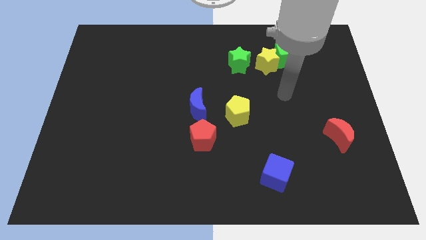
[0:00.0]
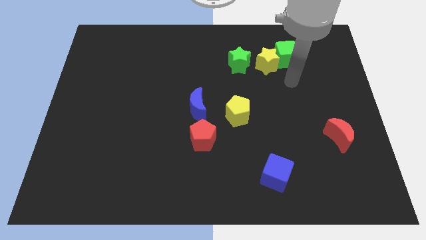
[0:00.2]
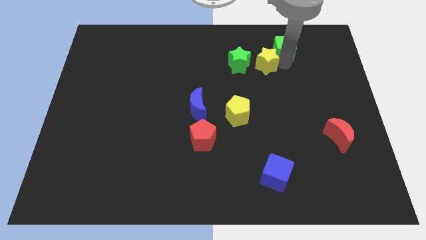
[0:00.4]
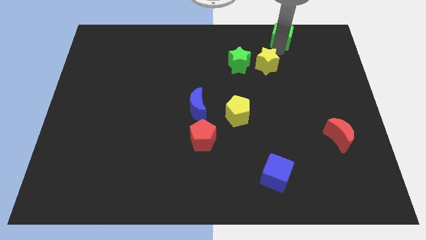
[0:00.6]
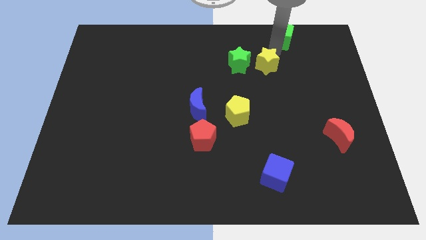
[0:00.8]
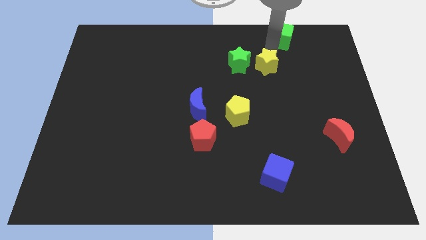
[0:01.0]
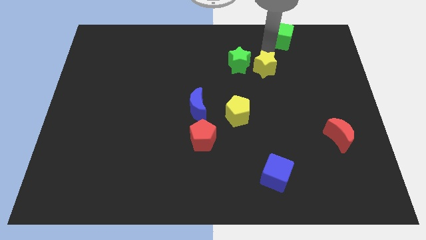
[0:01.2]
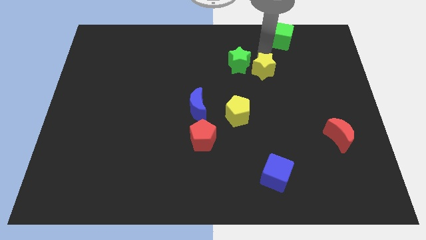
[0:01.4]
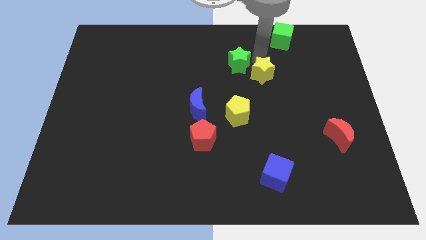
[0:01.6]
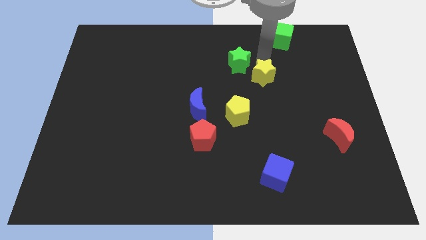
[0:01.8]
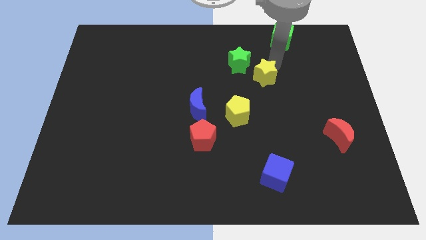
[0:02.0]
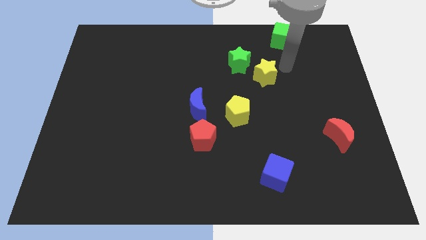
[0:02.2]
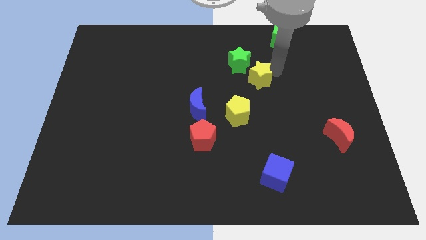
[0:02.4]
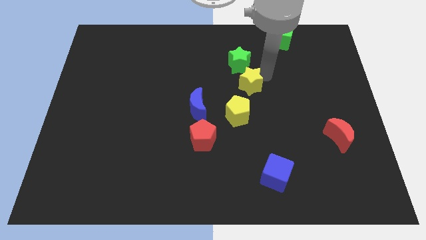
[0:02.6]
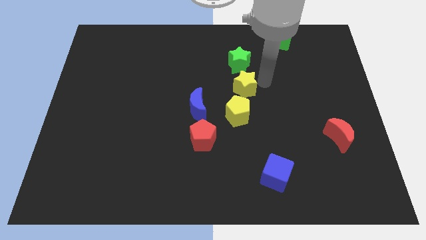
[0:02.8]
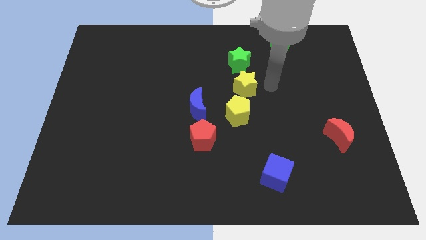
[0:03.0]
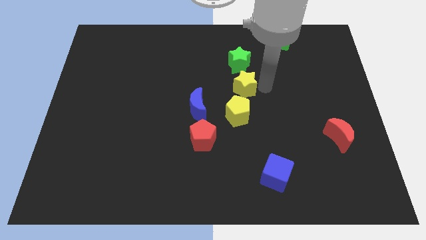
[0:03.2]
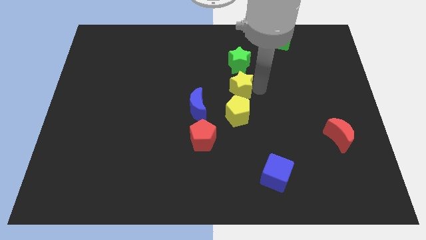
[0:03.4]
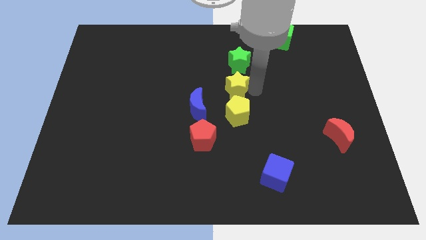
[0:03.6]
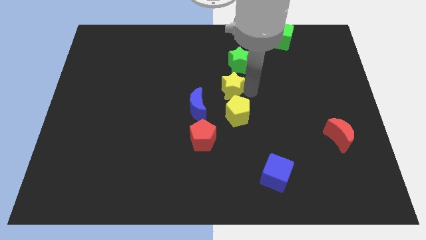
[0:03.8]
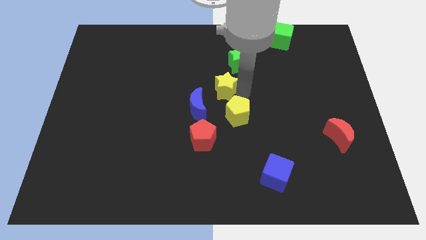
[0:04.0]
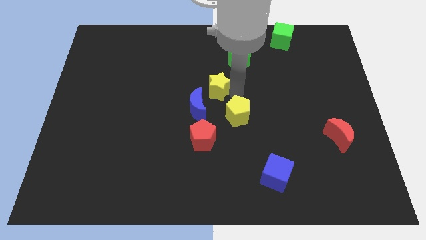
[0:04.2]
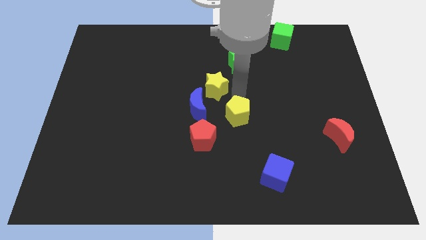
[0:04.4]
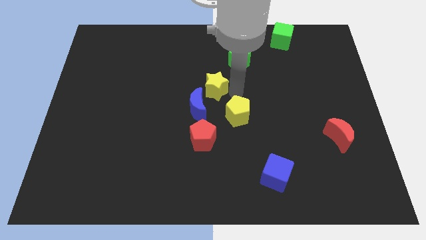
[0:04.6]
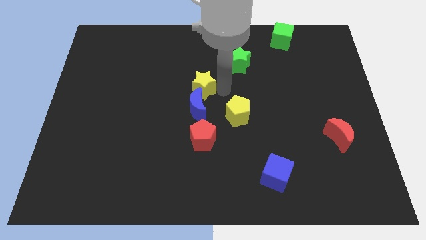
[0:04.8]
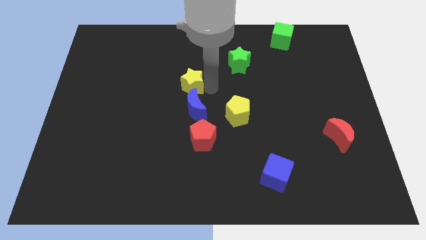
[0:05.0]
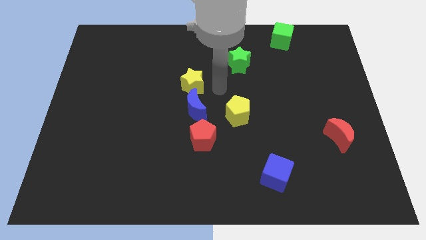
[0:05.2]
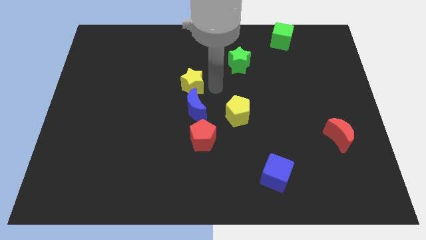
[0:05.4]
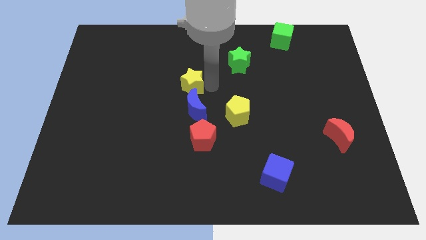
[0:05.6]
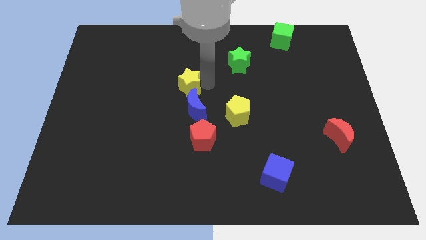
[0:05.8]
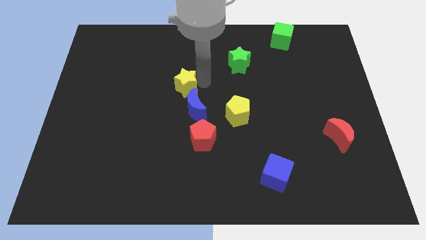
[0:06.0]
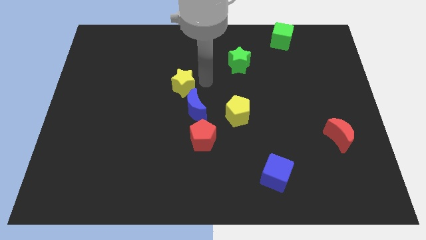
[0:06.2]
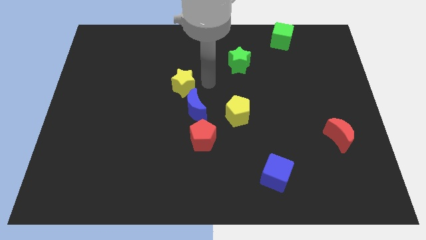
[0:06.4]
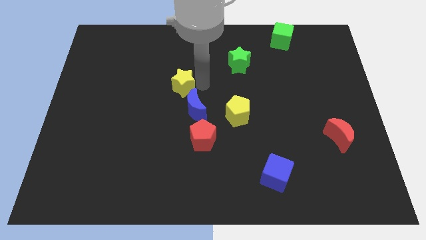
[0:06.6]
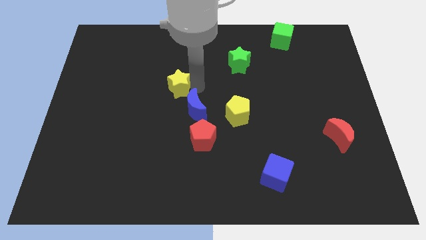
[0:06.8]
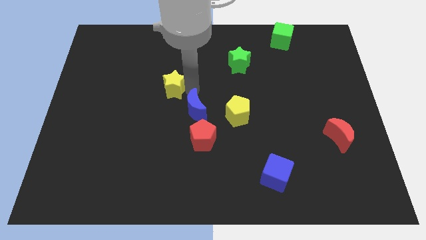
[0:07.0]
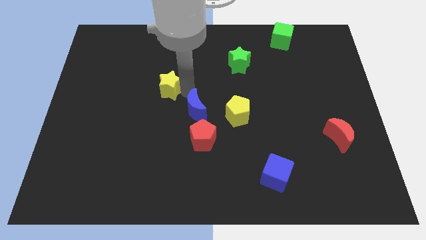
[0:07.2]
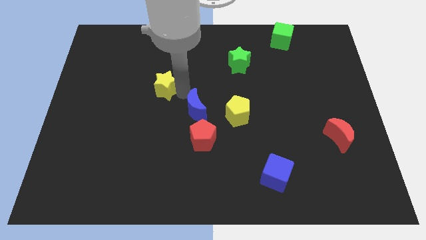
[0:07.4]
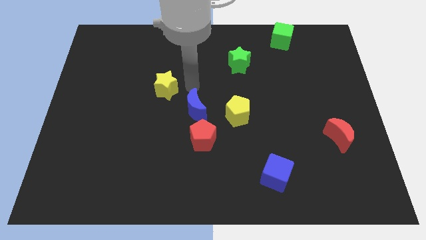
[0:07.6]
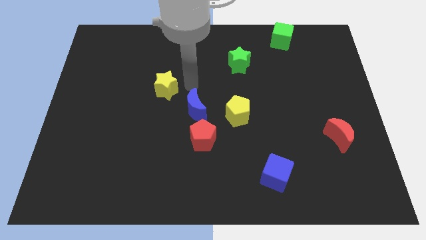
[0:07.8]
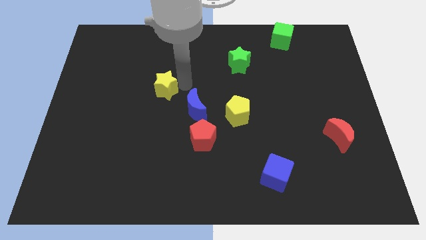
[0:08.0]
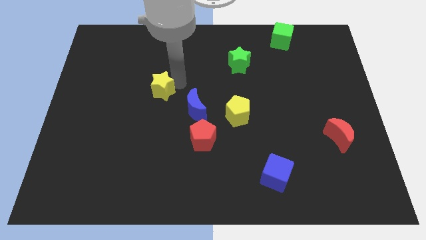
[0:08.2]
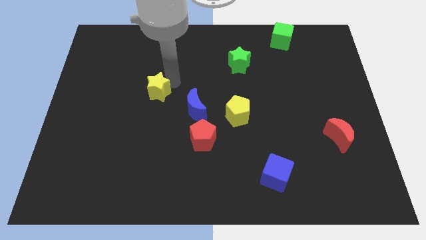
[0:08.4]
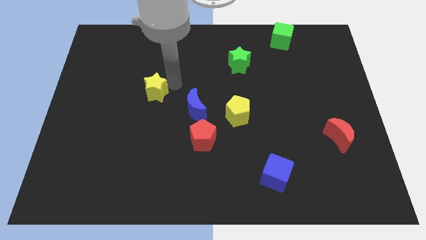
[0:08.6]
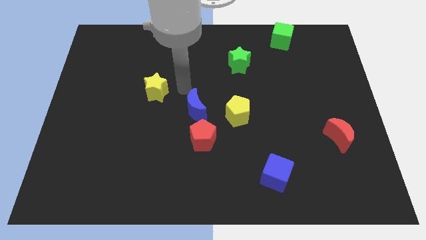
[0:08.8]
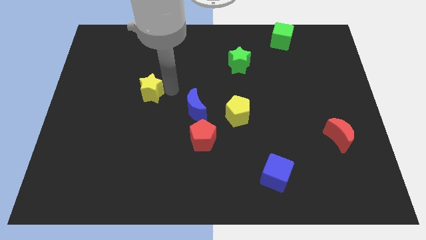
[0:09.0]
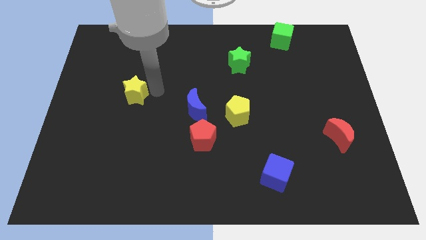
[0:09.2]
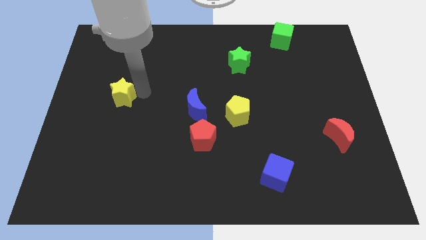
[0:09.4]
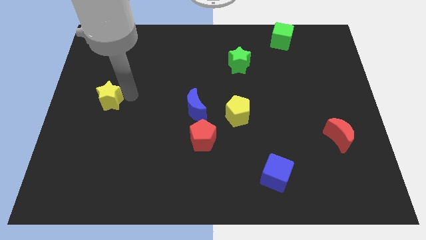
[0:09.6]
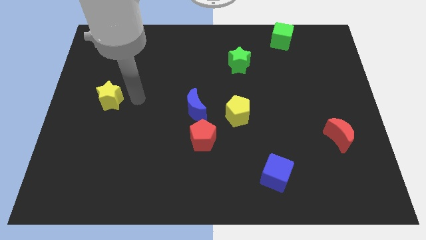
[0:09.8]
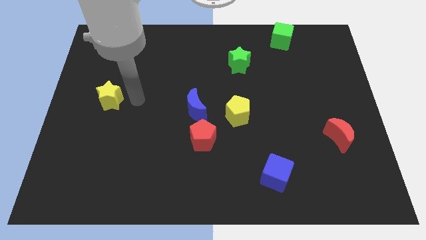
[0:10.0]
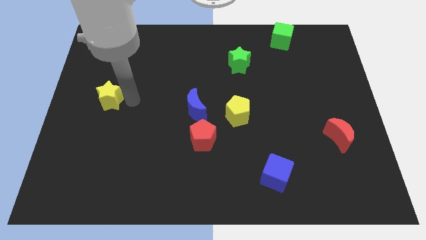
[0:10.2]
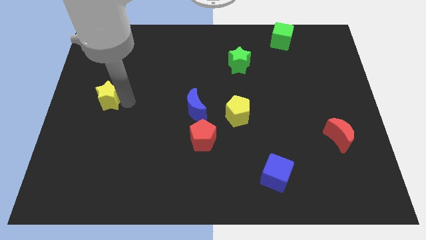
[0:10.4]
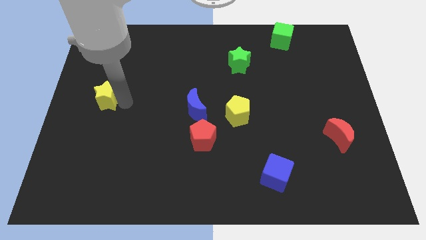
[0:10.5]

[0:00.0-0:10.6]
slide the yellow star to the left side of the board
